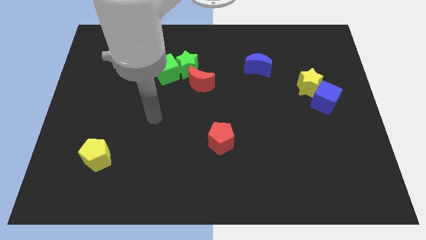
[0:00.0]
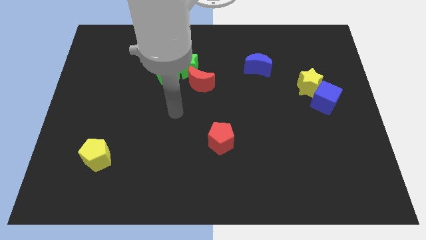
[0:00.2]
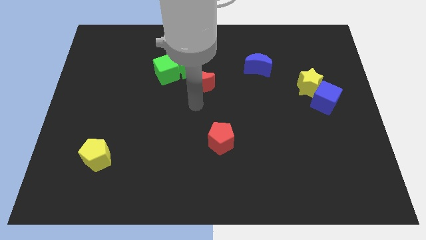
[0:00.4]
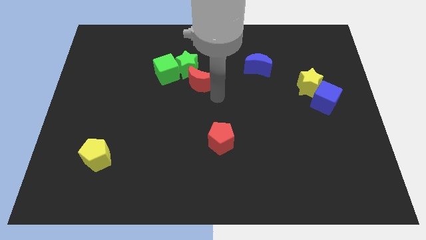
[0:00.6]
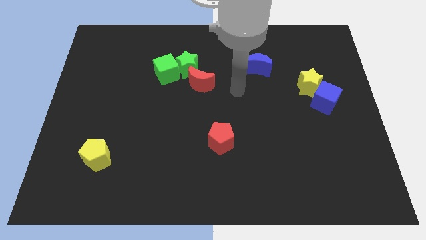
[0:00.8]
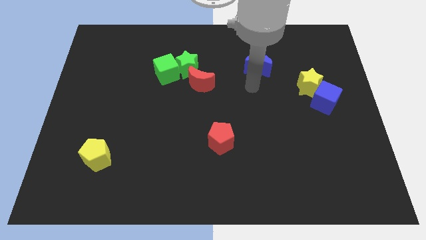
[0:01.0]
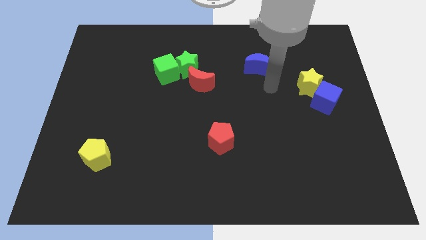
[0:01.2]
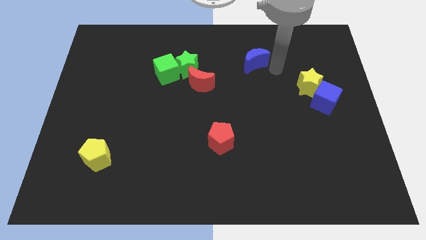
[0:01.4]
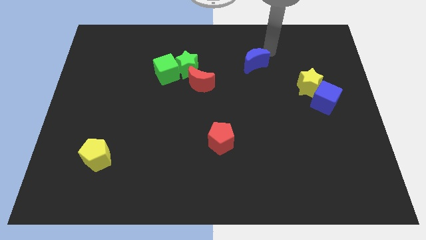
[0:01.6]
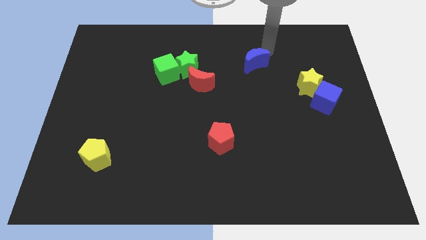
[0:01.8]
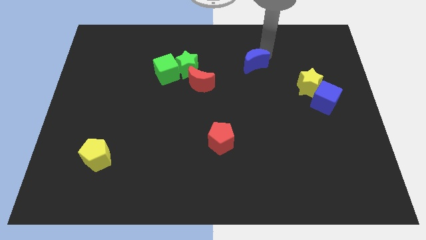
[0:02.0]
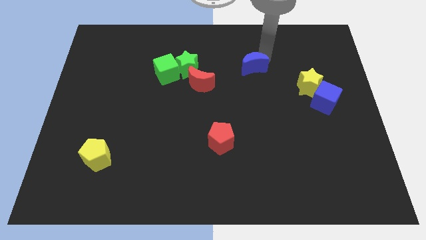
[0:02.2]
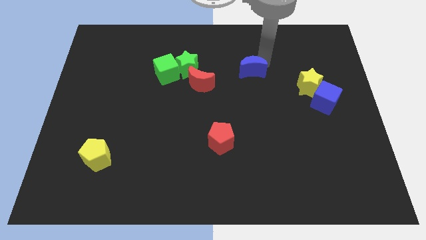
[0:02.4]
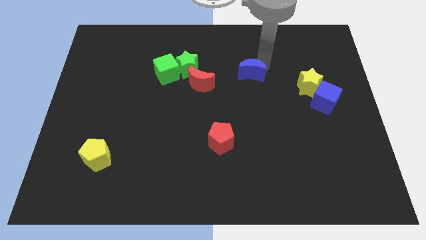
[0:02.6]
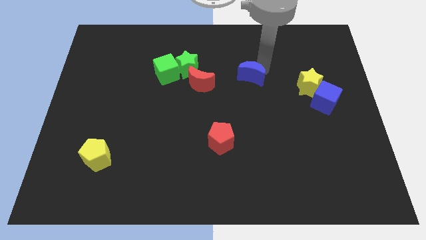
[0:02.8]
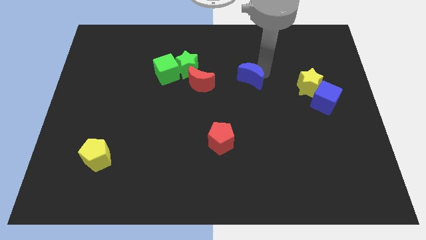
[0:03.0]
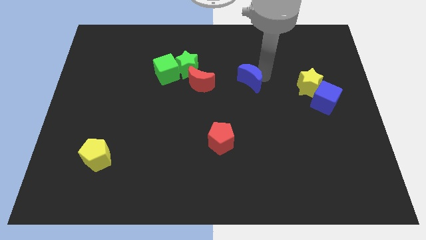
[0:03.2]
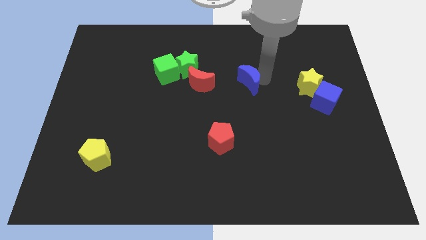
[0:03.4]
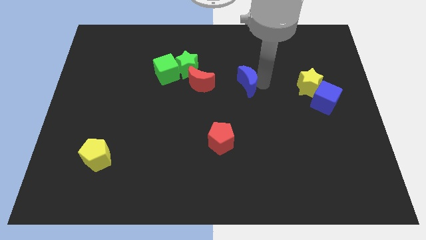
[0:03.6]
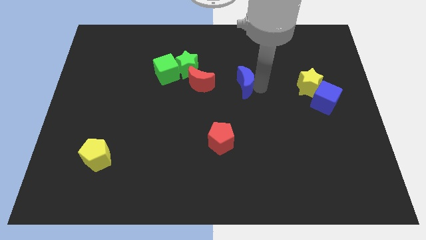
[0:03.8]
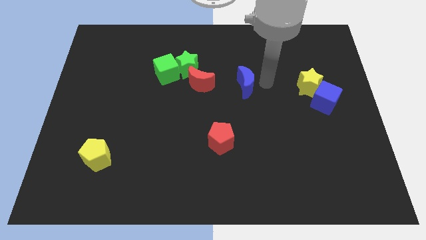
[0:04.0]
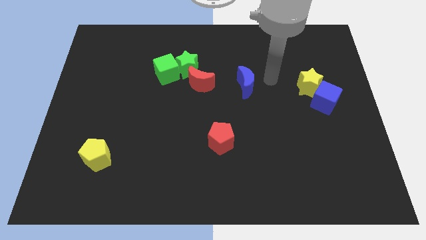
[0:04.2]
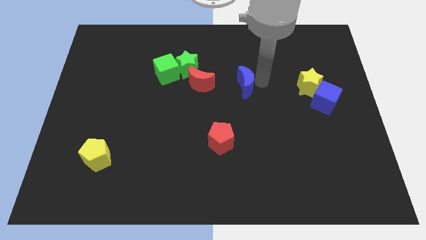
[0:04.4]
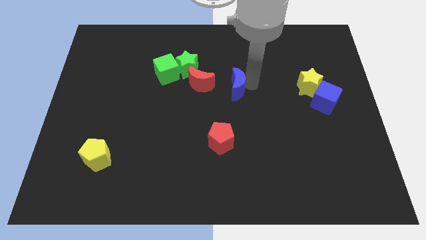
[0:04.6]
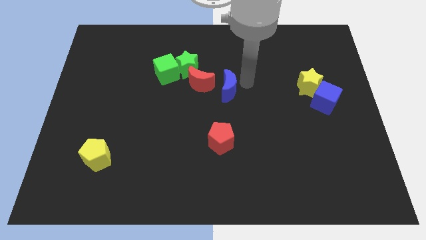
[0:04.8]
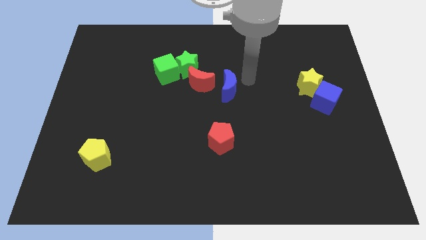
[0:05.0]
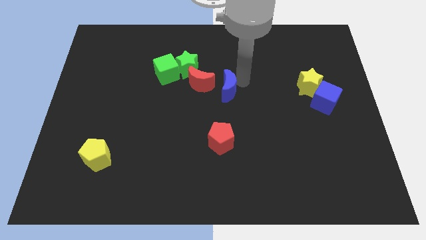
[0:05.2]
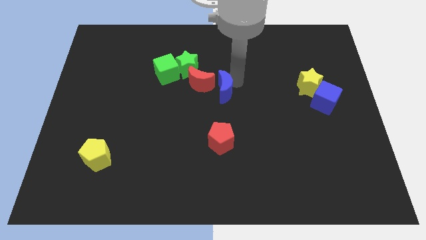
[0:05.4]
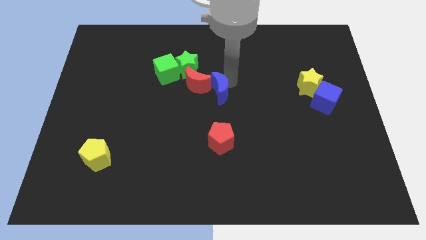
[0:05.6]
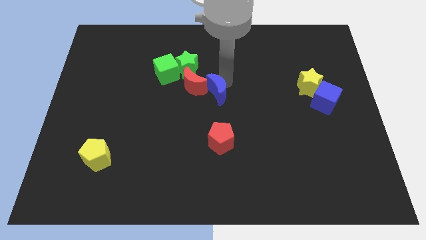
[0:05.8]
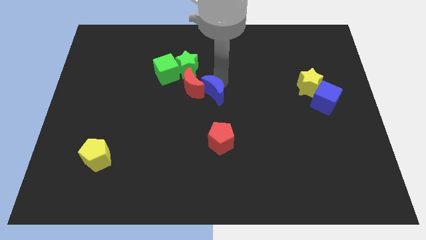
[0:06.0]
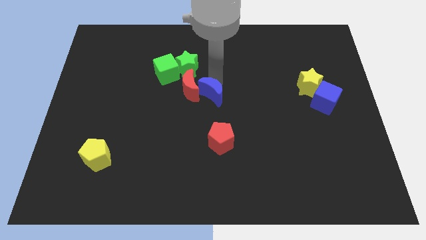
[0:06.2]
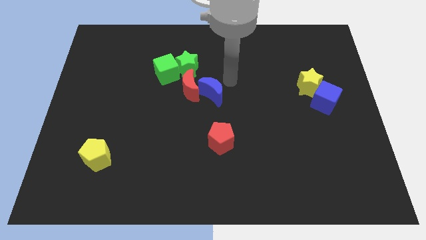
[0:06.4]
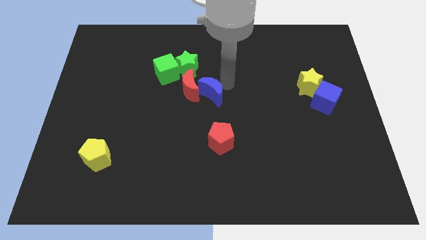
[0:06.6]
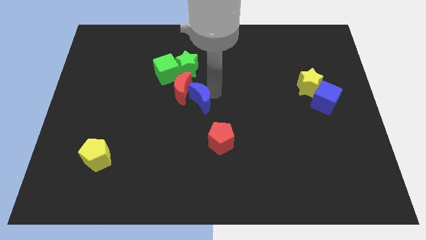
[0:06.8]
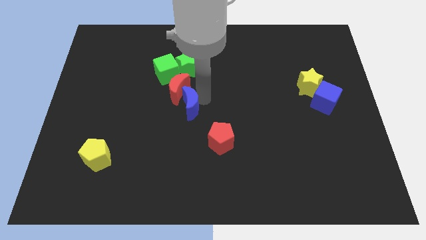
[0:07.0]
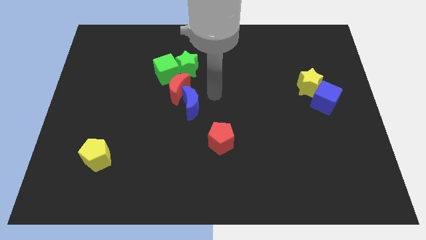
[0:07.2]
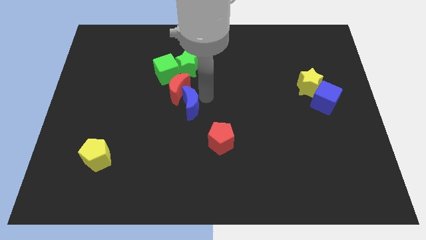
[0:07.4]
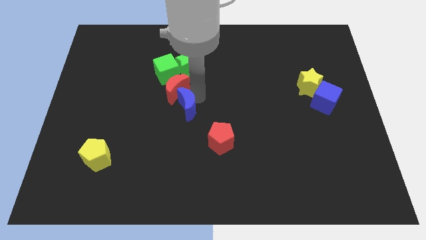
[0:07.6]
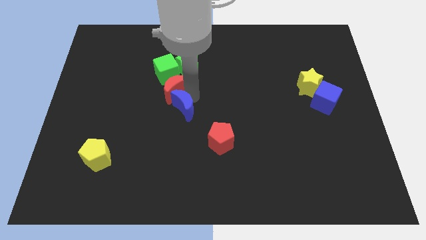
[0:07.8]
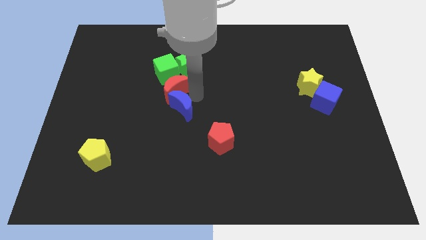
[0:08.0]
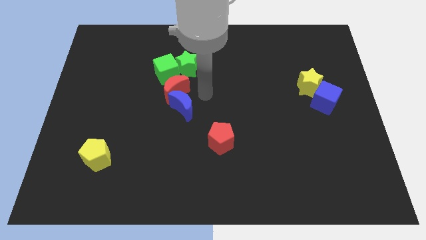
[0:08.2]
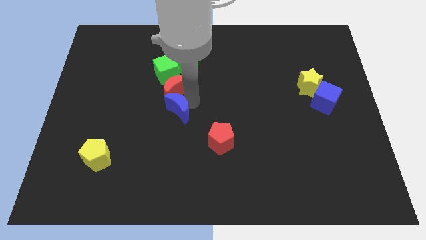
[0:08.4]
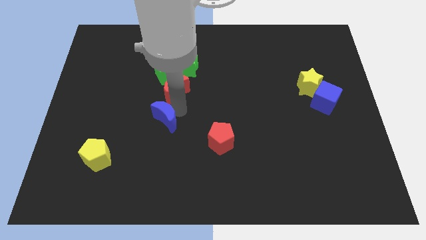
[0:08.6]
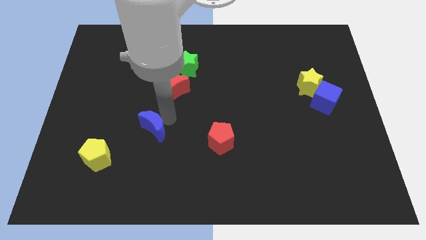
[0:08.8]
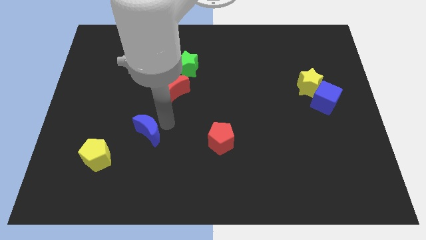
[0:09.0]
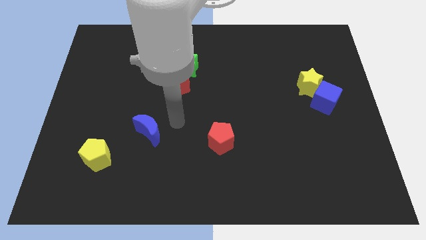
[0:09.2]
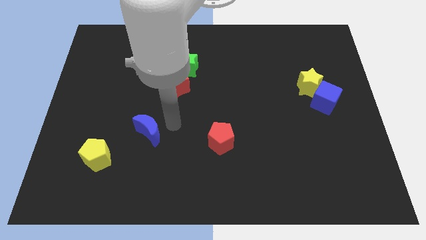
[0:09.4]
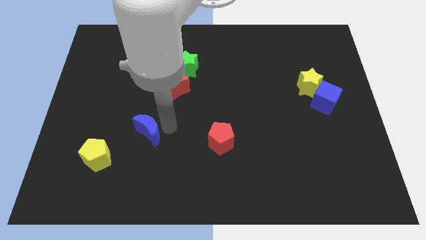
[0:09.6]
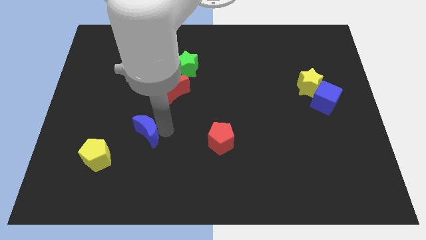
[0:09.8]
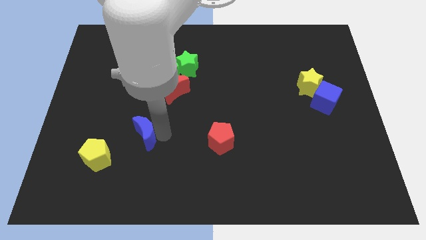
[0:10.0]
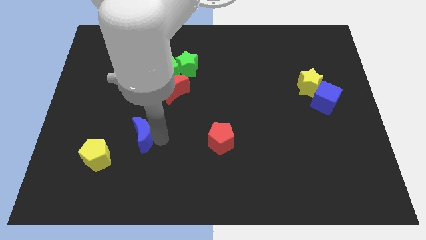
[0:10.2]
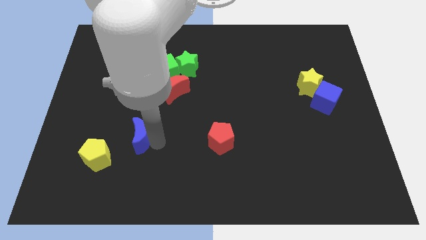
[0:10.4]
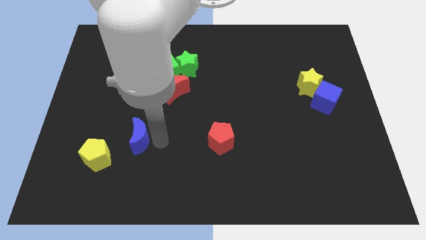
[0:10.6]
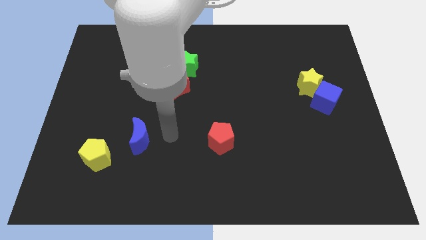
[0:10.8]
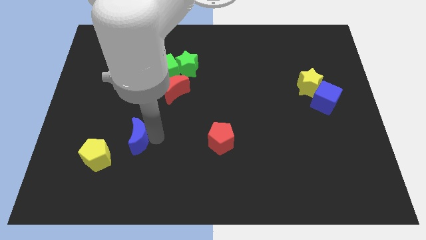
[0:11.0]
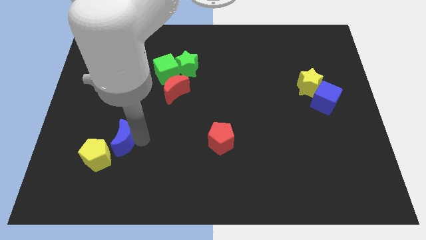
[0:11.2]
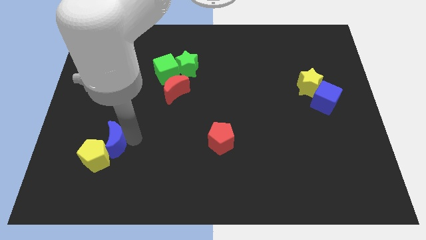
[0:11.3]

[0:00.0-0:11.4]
push the blue moon towards the yellow pentagon

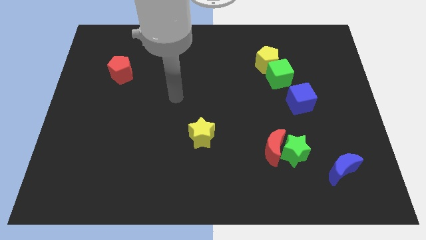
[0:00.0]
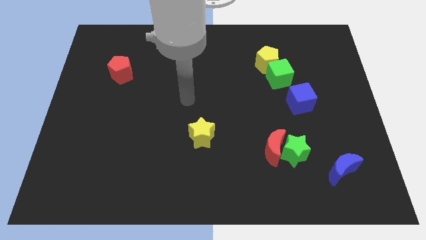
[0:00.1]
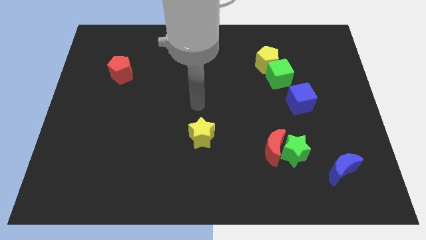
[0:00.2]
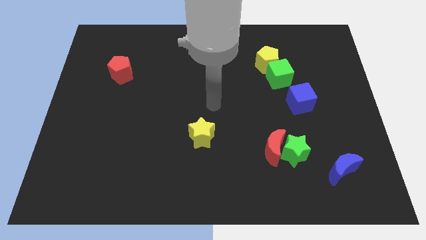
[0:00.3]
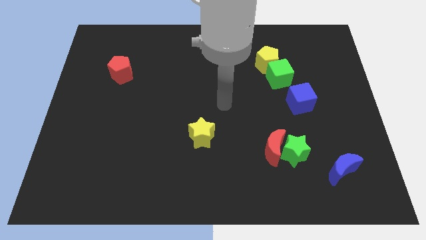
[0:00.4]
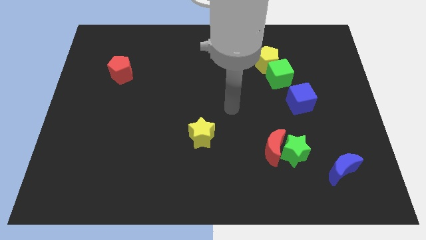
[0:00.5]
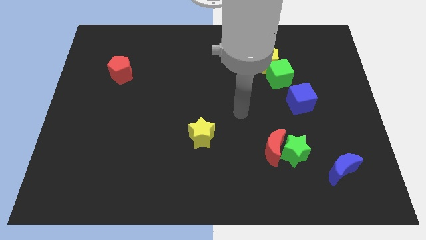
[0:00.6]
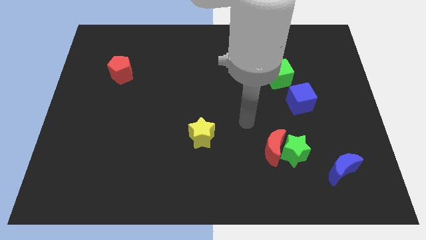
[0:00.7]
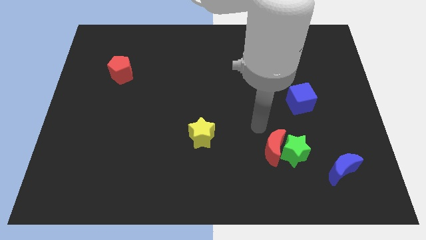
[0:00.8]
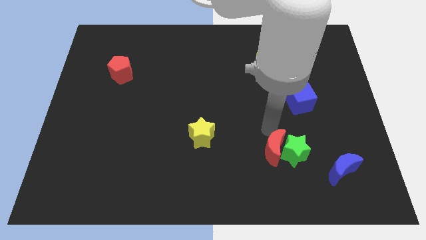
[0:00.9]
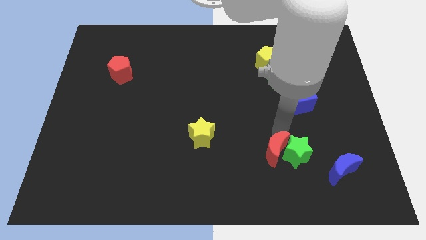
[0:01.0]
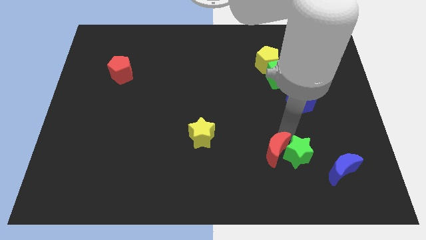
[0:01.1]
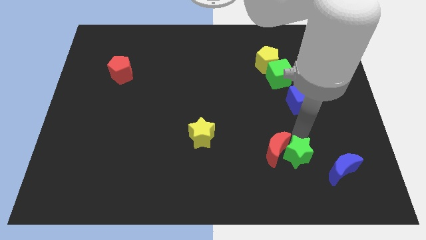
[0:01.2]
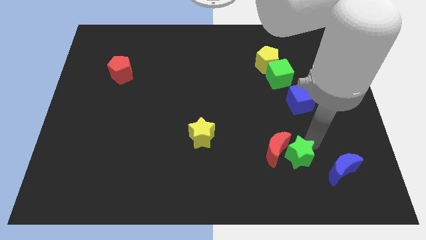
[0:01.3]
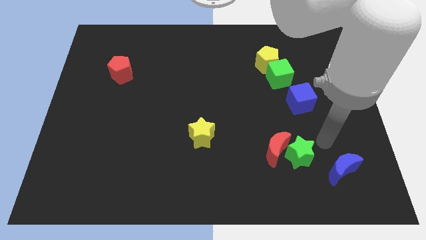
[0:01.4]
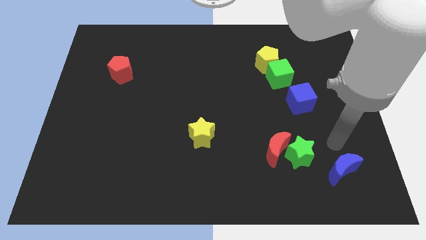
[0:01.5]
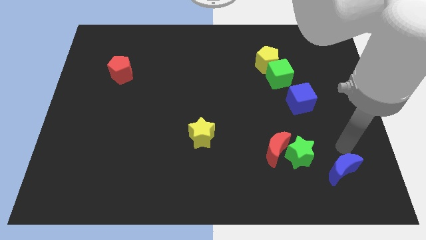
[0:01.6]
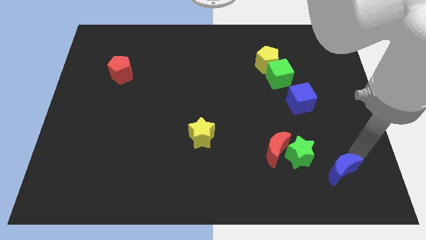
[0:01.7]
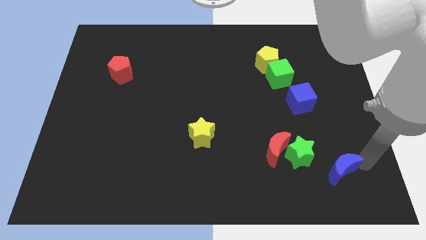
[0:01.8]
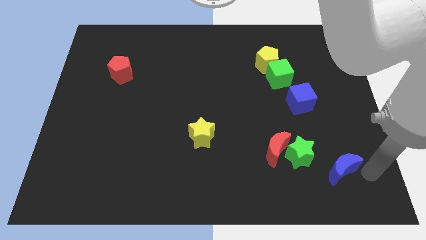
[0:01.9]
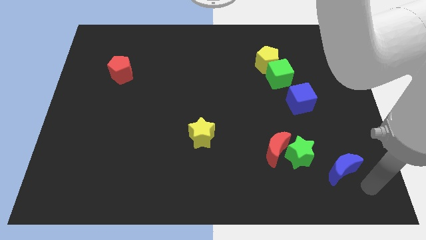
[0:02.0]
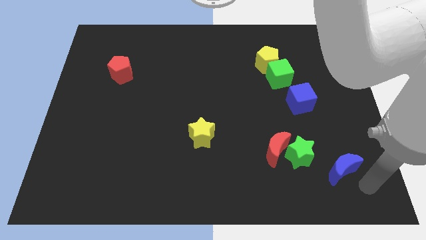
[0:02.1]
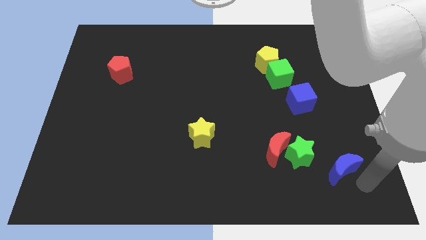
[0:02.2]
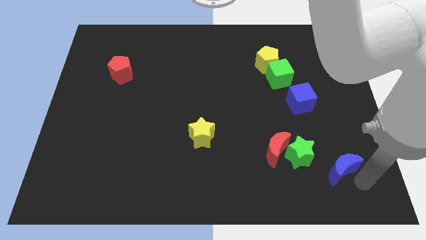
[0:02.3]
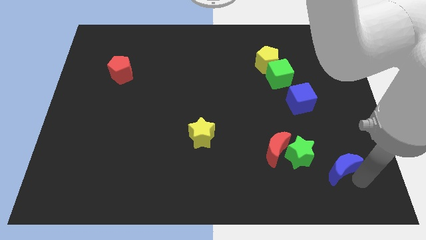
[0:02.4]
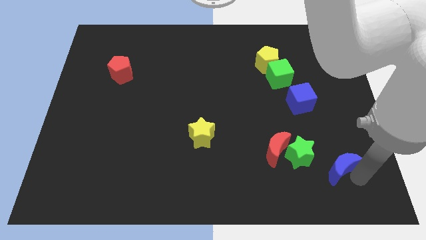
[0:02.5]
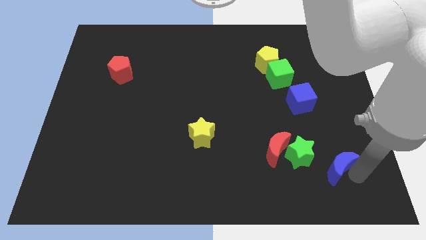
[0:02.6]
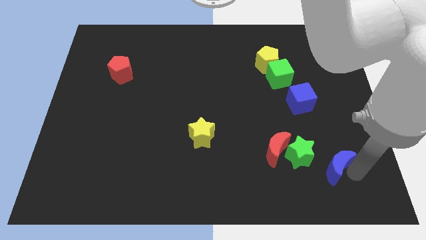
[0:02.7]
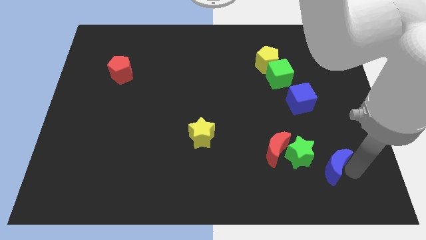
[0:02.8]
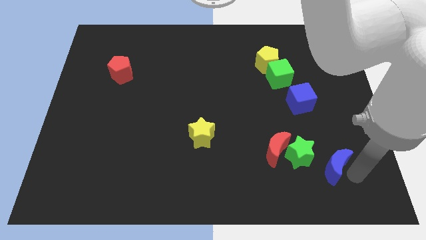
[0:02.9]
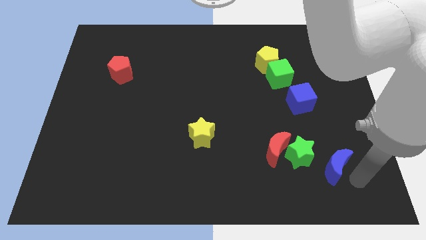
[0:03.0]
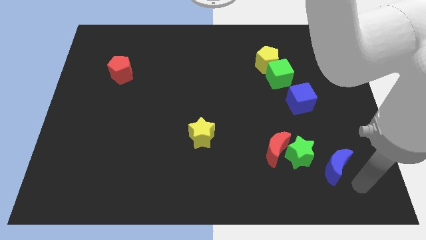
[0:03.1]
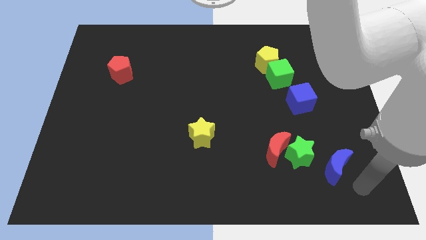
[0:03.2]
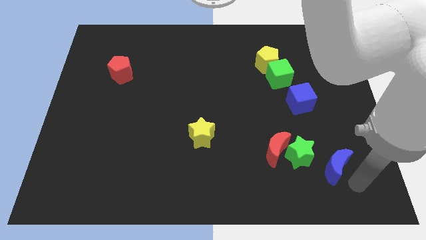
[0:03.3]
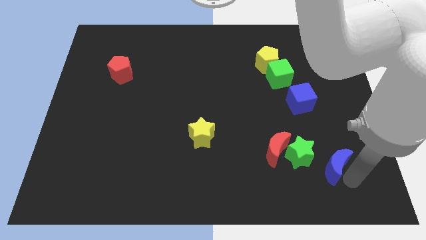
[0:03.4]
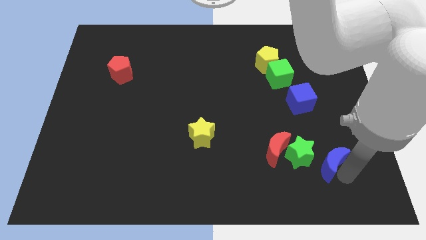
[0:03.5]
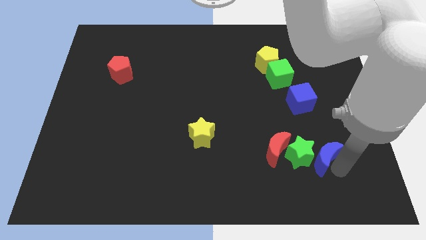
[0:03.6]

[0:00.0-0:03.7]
put the blue moon close to the green star
